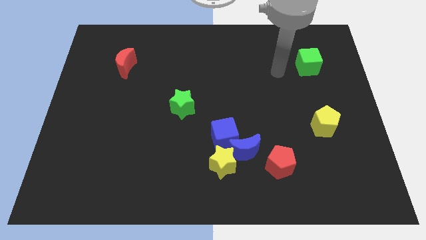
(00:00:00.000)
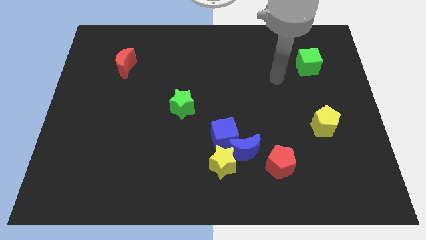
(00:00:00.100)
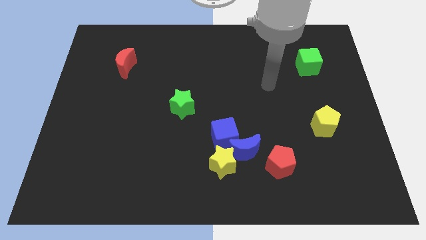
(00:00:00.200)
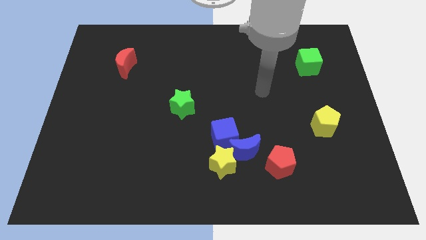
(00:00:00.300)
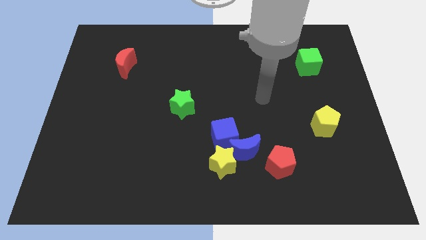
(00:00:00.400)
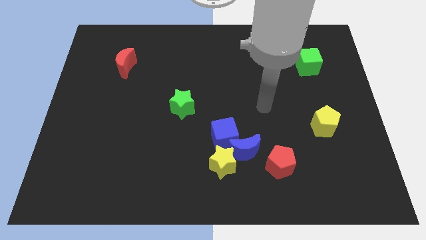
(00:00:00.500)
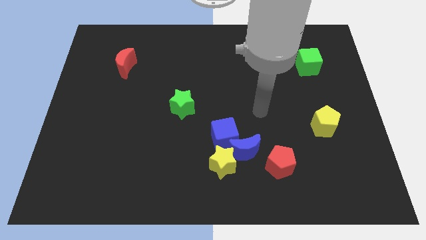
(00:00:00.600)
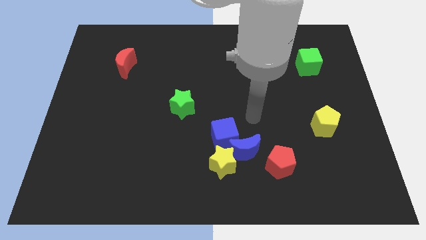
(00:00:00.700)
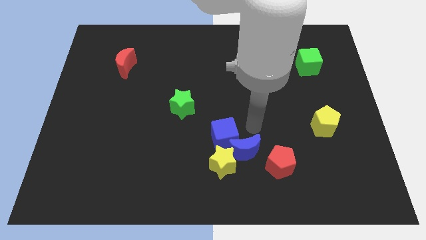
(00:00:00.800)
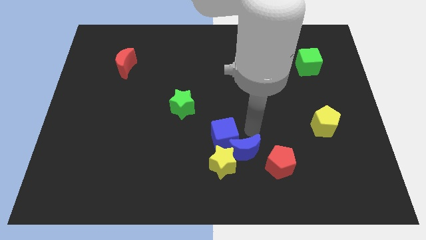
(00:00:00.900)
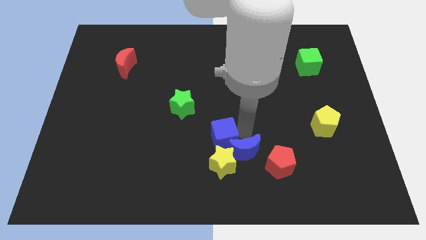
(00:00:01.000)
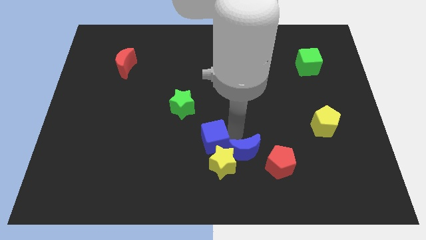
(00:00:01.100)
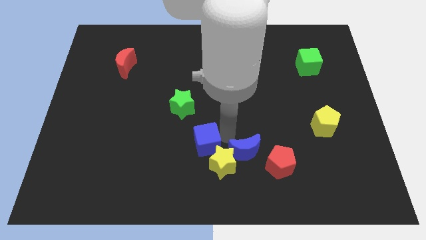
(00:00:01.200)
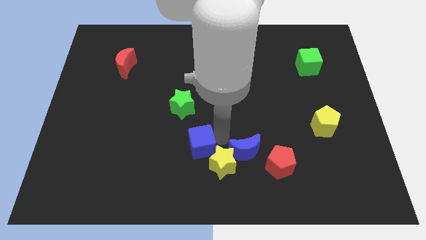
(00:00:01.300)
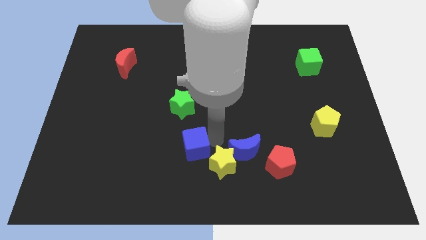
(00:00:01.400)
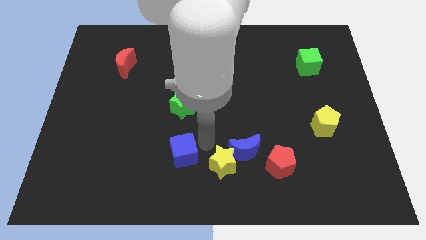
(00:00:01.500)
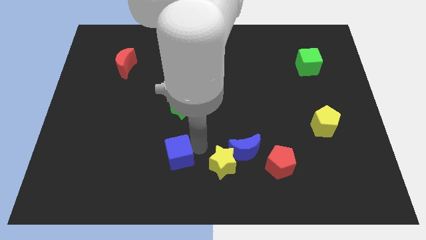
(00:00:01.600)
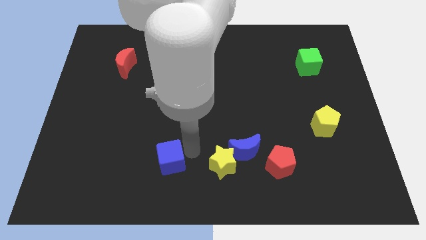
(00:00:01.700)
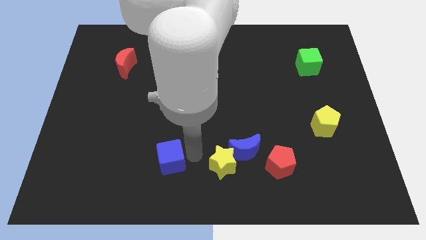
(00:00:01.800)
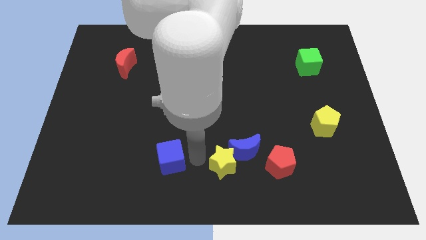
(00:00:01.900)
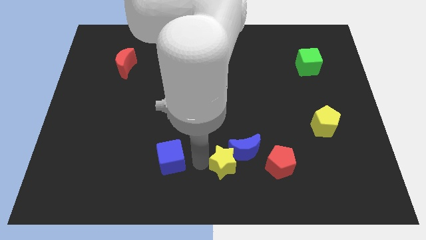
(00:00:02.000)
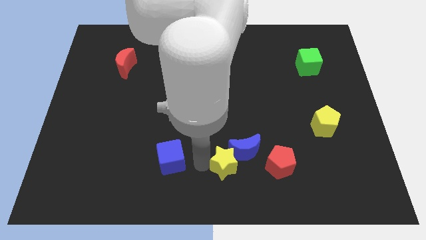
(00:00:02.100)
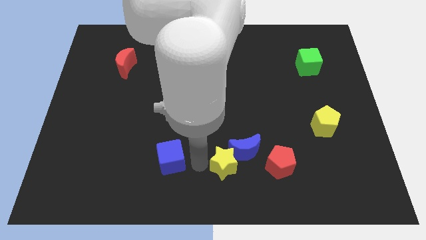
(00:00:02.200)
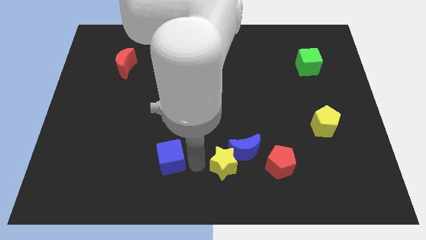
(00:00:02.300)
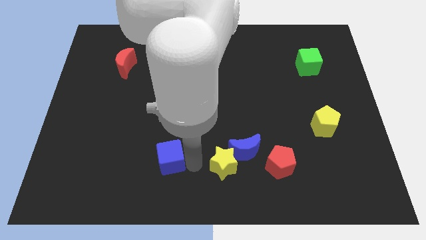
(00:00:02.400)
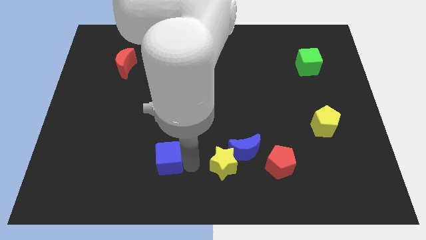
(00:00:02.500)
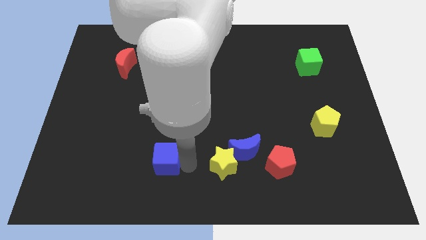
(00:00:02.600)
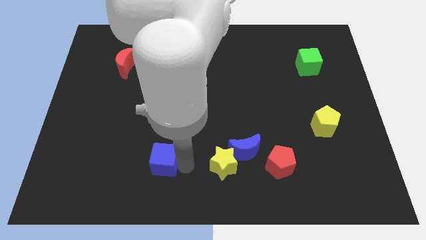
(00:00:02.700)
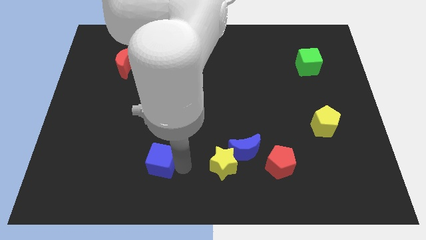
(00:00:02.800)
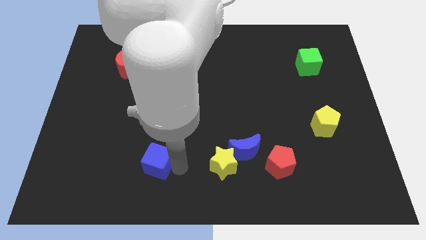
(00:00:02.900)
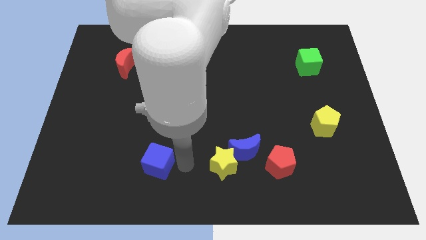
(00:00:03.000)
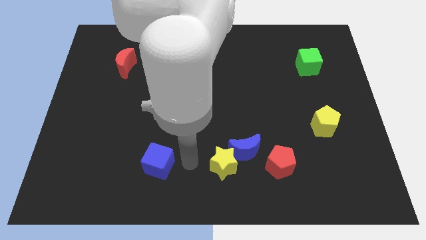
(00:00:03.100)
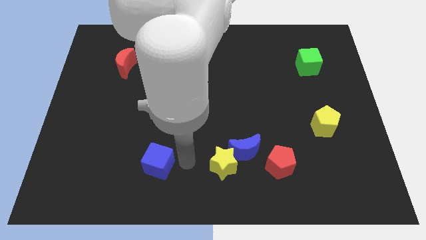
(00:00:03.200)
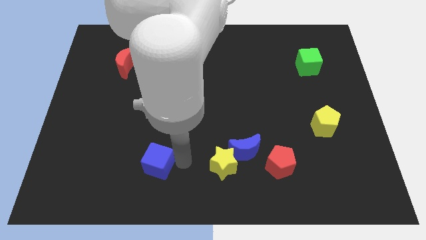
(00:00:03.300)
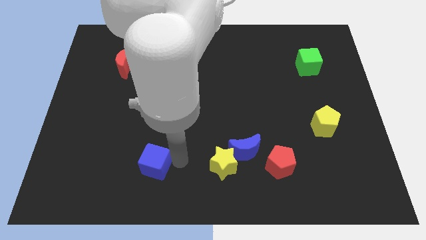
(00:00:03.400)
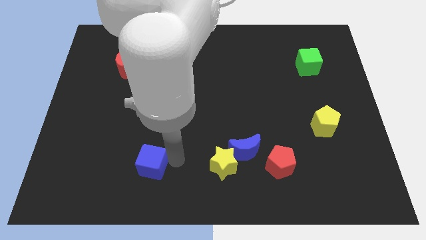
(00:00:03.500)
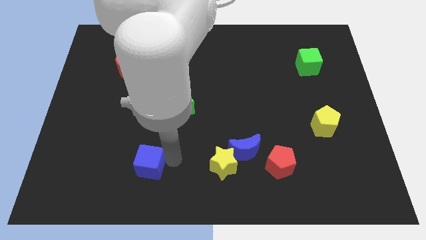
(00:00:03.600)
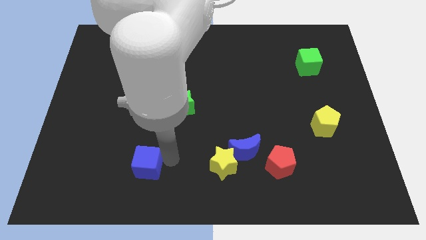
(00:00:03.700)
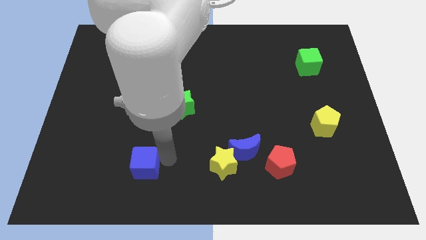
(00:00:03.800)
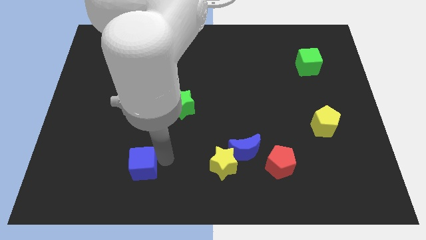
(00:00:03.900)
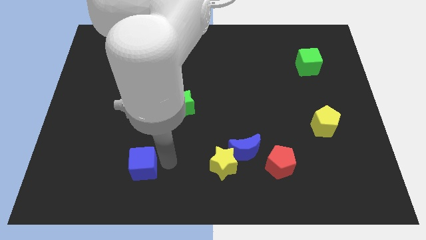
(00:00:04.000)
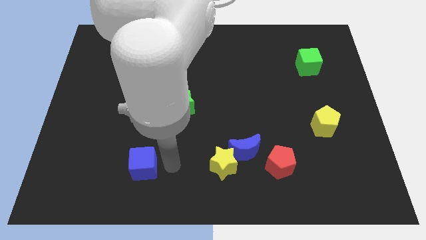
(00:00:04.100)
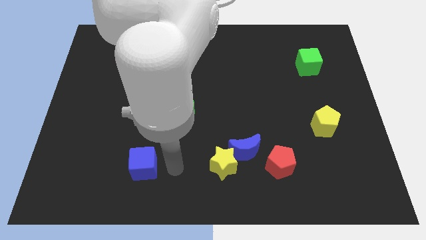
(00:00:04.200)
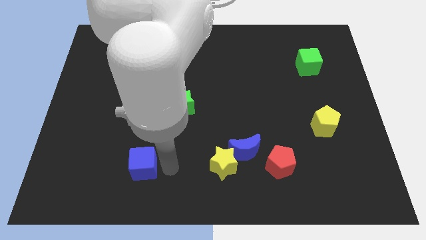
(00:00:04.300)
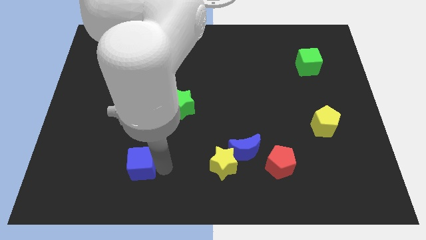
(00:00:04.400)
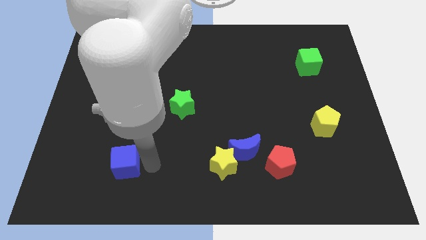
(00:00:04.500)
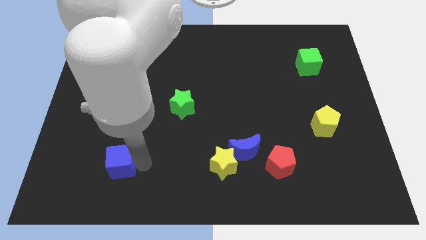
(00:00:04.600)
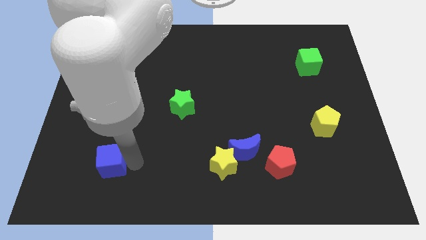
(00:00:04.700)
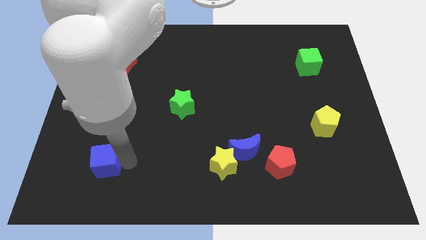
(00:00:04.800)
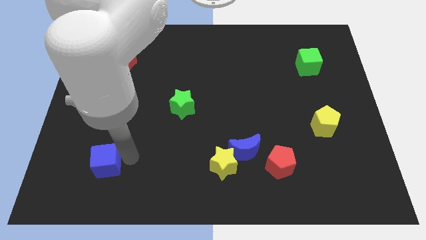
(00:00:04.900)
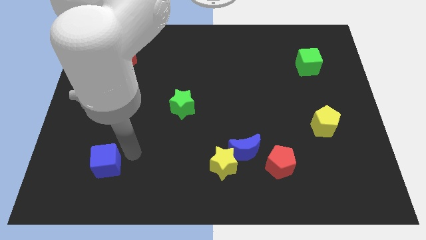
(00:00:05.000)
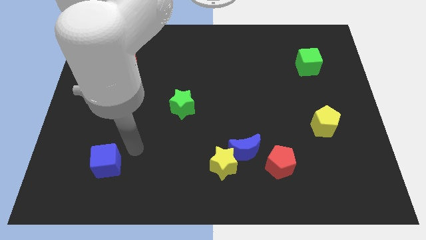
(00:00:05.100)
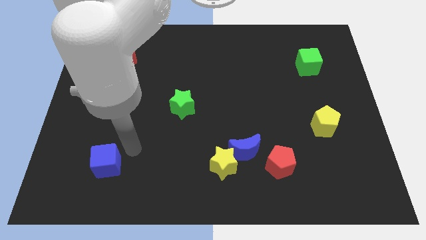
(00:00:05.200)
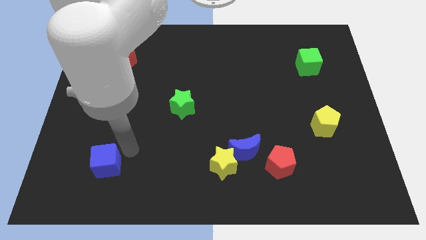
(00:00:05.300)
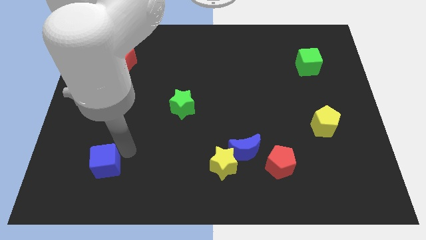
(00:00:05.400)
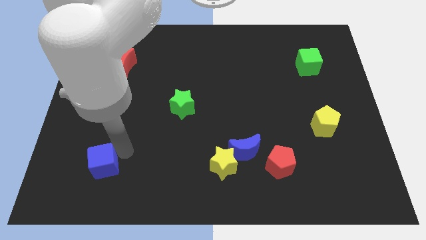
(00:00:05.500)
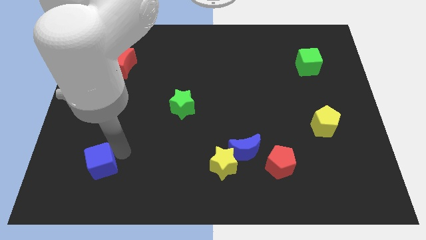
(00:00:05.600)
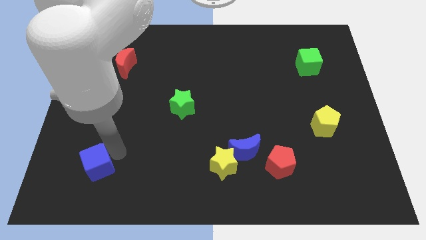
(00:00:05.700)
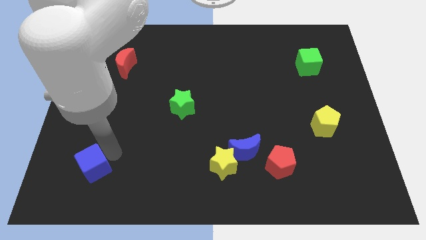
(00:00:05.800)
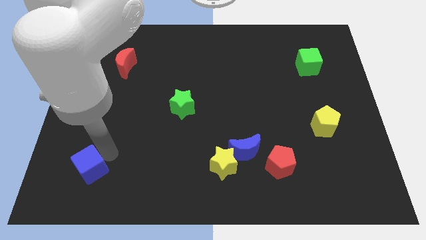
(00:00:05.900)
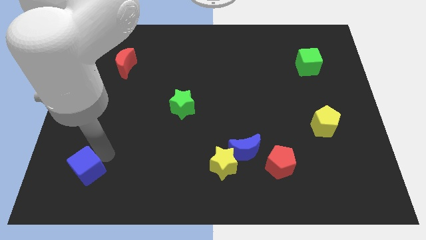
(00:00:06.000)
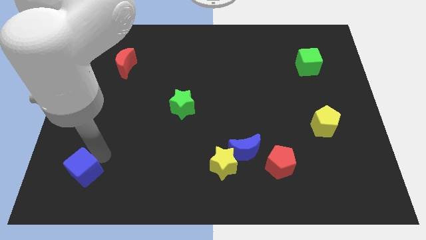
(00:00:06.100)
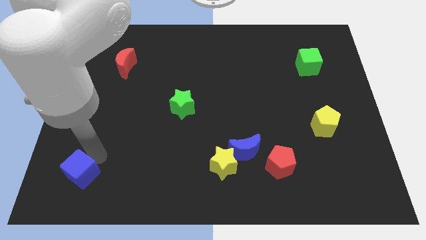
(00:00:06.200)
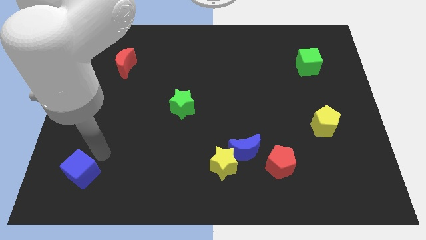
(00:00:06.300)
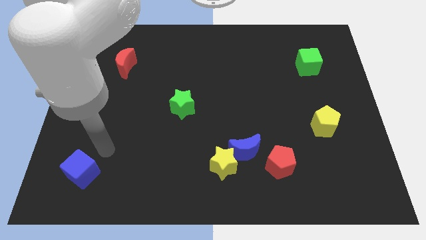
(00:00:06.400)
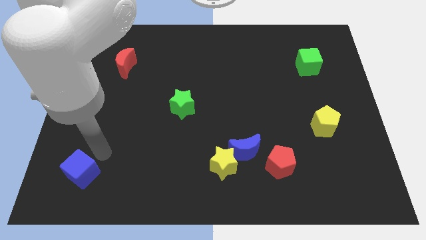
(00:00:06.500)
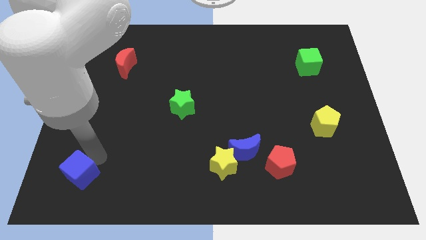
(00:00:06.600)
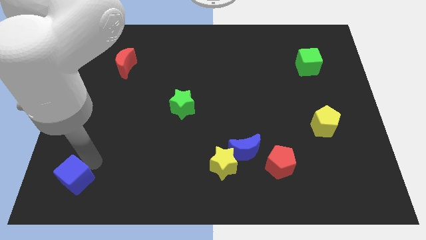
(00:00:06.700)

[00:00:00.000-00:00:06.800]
push the blue cube to the lower left corner

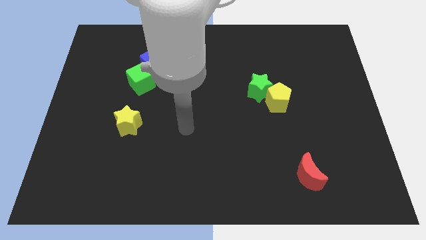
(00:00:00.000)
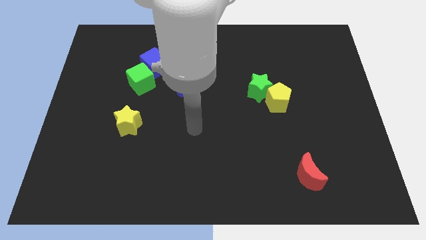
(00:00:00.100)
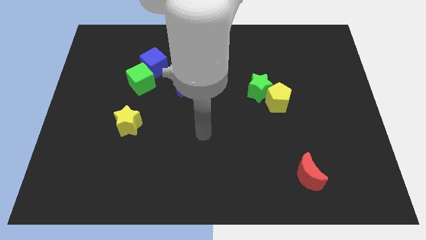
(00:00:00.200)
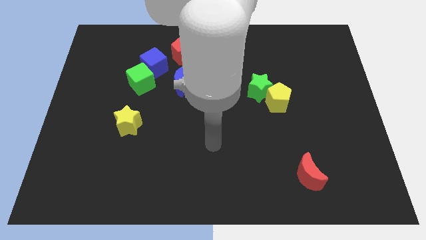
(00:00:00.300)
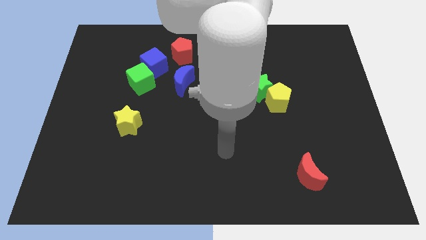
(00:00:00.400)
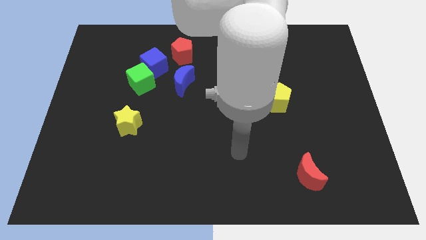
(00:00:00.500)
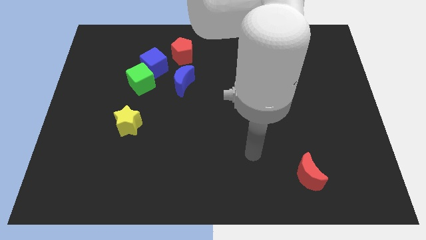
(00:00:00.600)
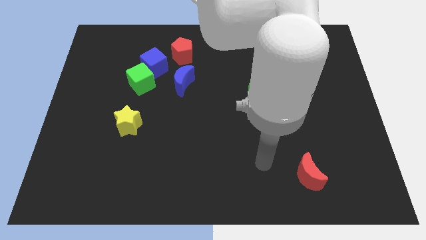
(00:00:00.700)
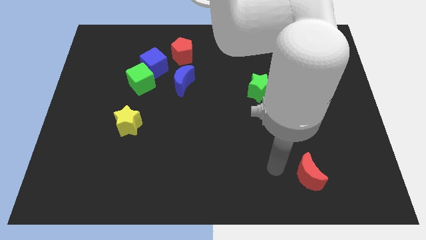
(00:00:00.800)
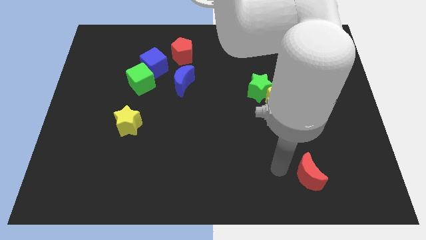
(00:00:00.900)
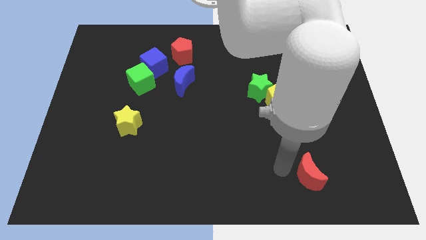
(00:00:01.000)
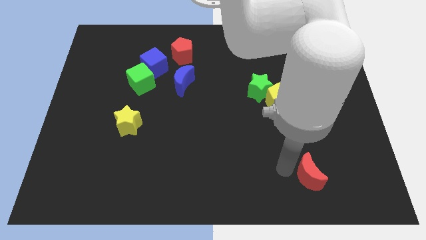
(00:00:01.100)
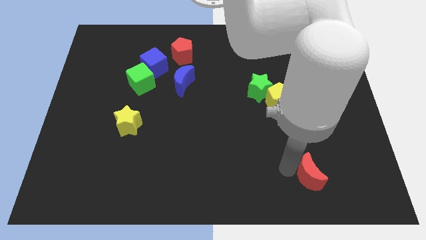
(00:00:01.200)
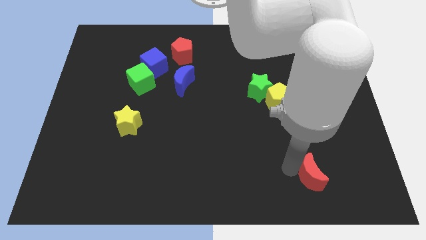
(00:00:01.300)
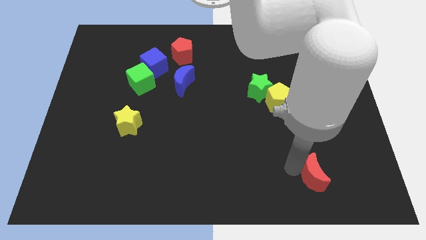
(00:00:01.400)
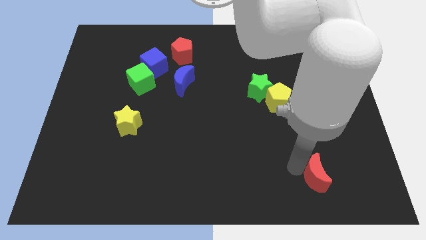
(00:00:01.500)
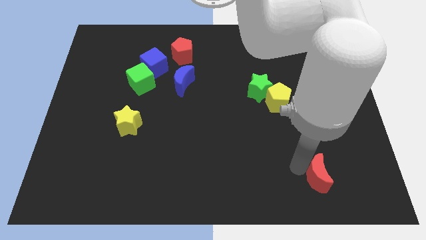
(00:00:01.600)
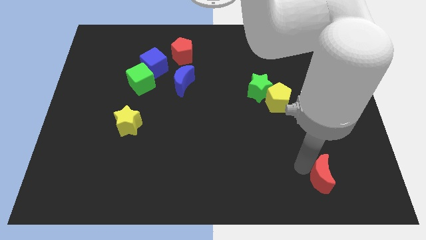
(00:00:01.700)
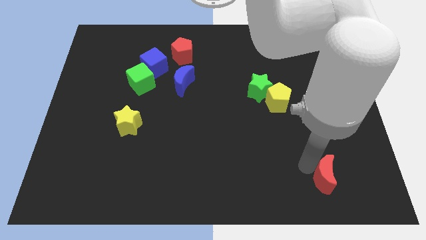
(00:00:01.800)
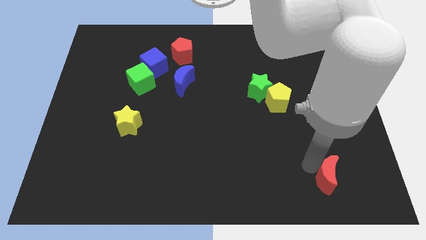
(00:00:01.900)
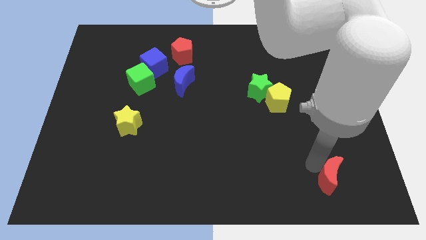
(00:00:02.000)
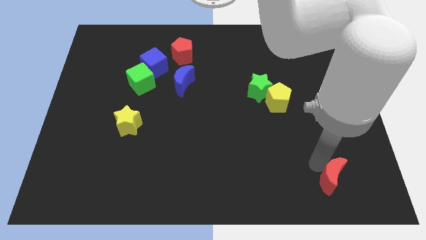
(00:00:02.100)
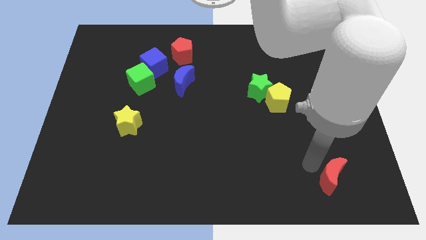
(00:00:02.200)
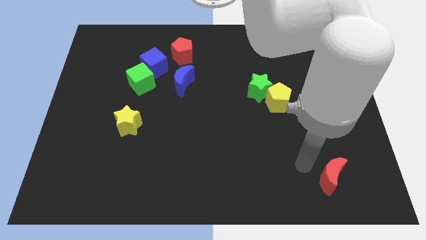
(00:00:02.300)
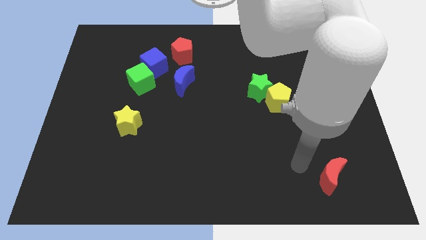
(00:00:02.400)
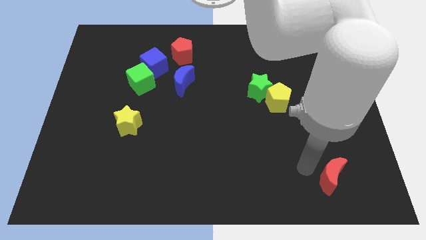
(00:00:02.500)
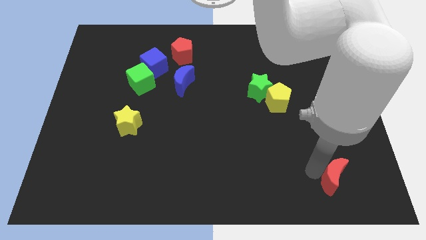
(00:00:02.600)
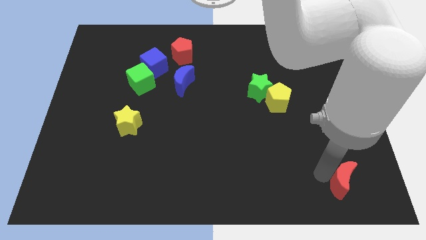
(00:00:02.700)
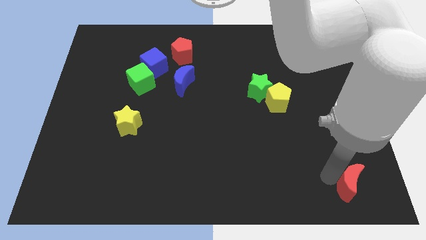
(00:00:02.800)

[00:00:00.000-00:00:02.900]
push the red moon to the bottom right of the board
